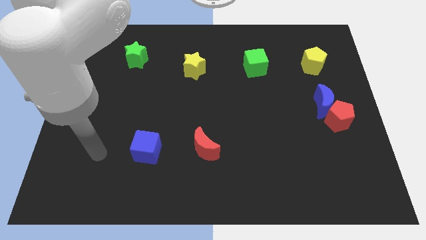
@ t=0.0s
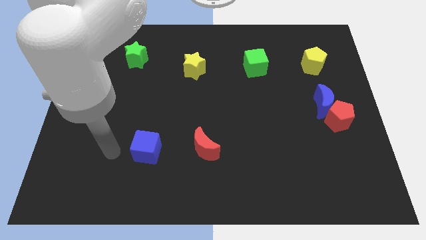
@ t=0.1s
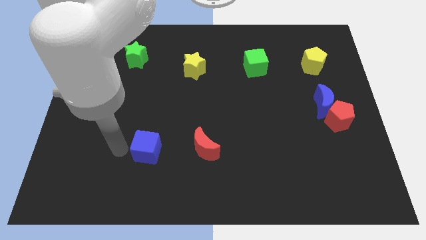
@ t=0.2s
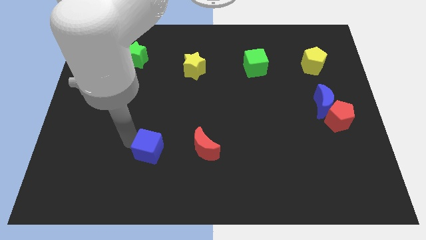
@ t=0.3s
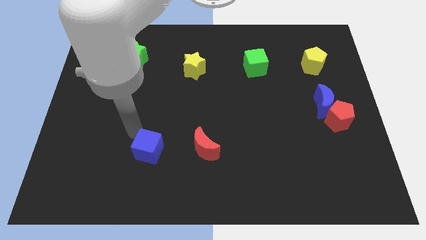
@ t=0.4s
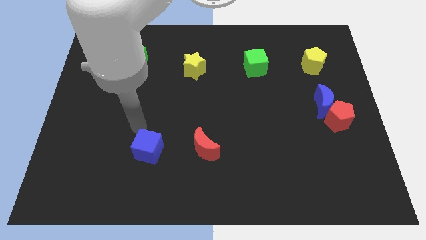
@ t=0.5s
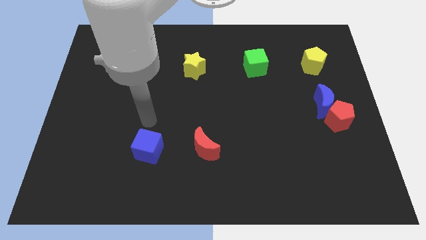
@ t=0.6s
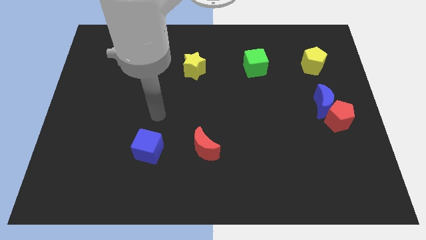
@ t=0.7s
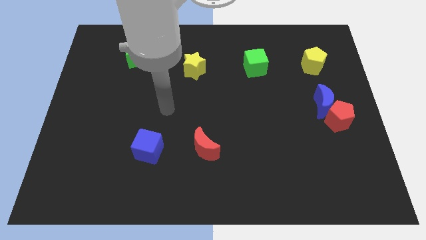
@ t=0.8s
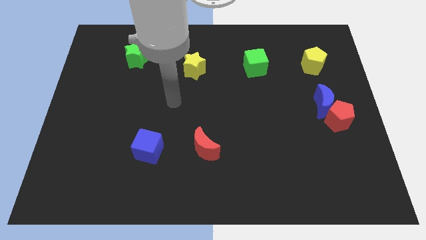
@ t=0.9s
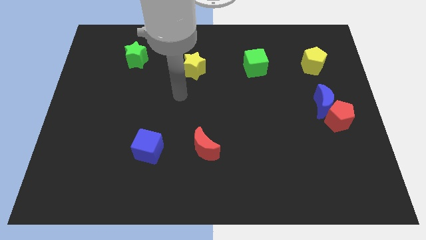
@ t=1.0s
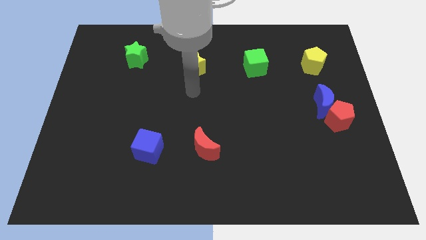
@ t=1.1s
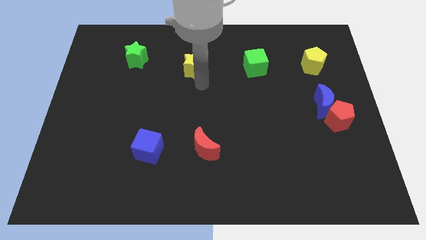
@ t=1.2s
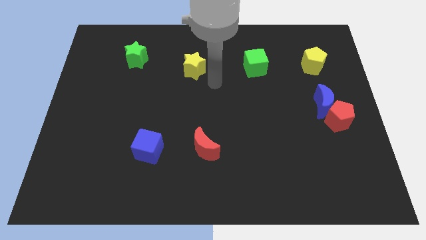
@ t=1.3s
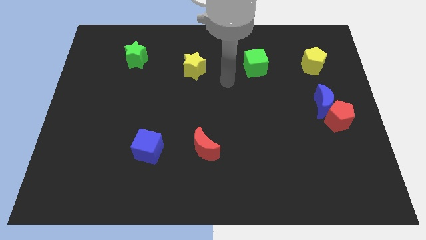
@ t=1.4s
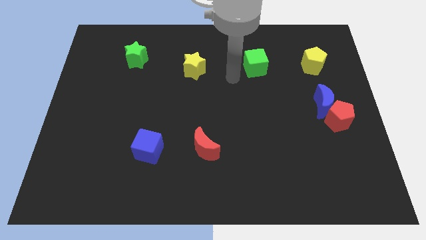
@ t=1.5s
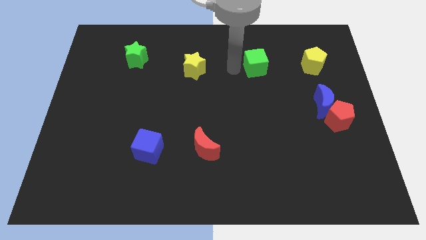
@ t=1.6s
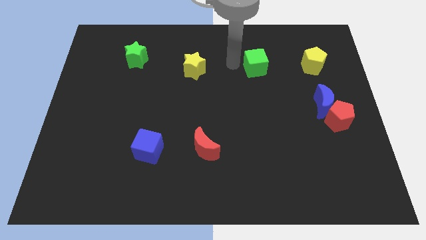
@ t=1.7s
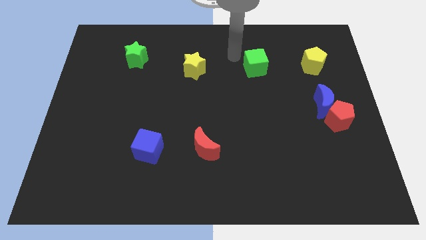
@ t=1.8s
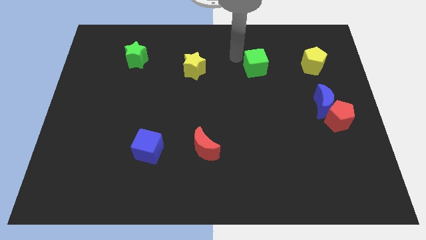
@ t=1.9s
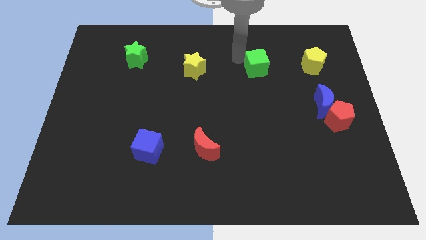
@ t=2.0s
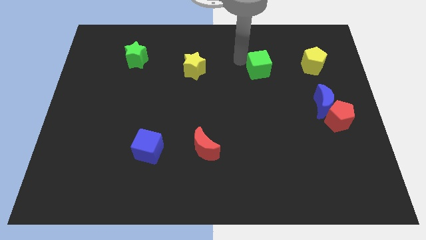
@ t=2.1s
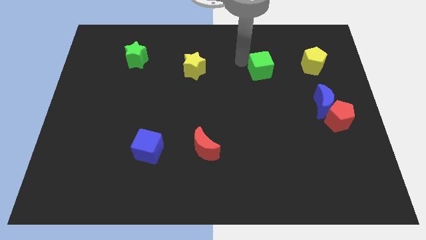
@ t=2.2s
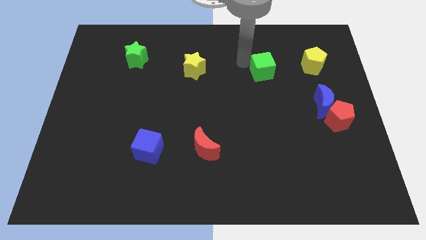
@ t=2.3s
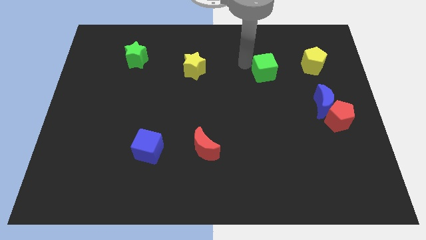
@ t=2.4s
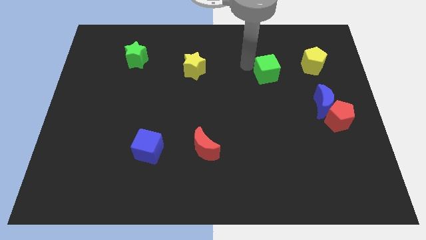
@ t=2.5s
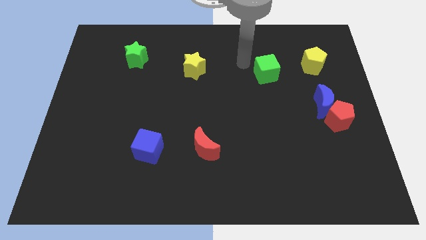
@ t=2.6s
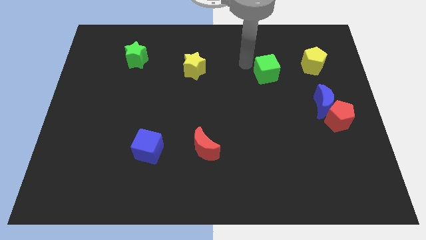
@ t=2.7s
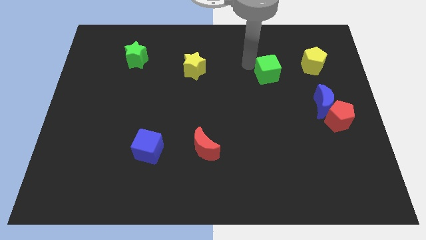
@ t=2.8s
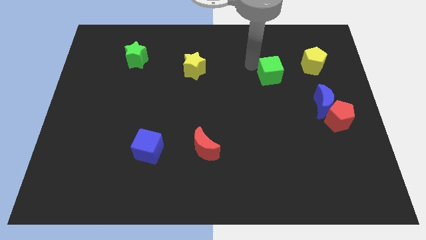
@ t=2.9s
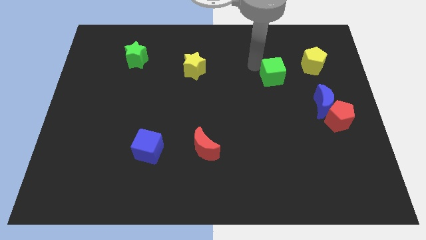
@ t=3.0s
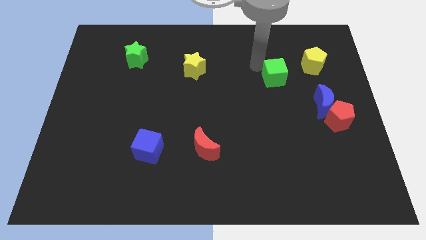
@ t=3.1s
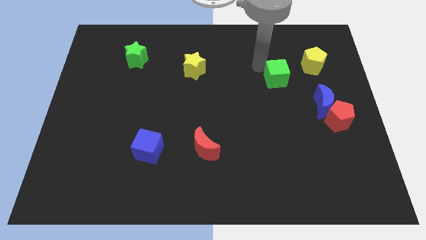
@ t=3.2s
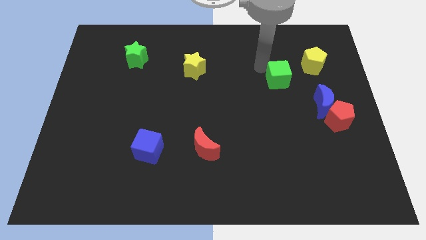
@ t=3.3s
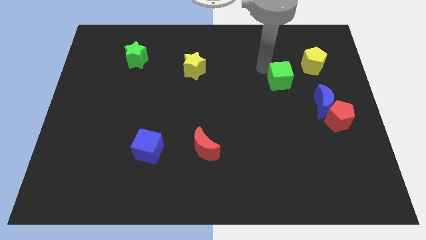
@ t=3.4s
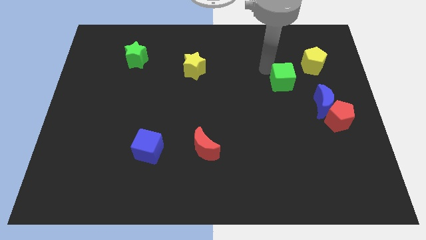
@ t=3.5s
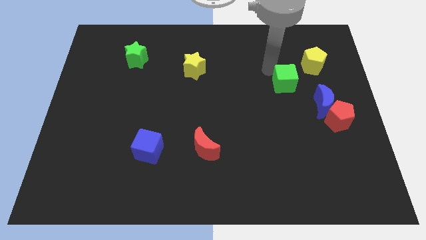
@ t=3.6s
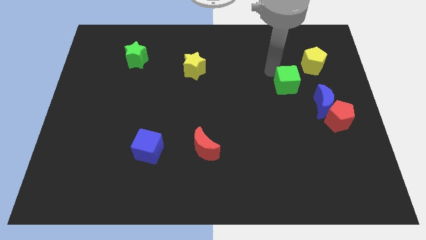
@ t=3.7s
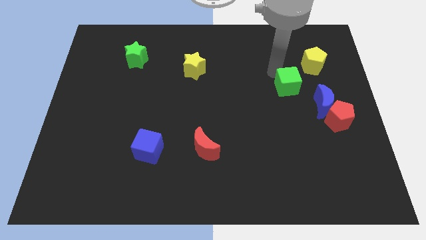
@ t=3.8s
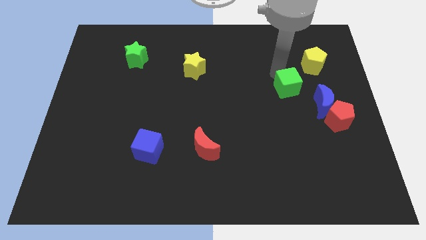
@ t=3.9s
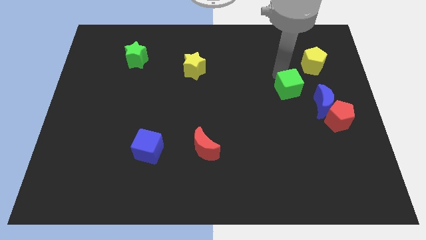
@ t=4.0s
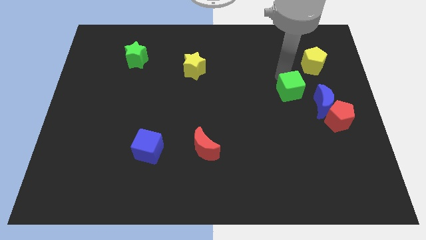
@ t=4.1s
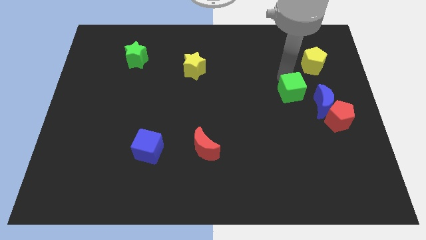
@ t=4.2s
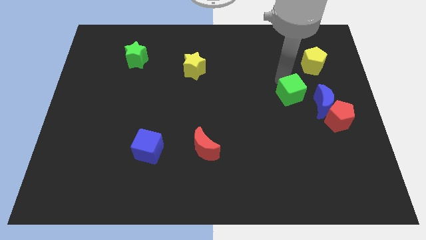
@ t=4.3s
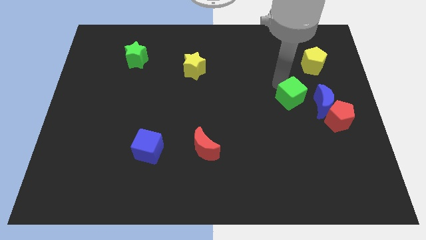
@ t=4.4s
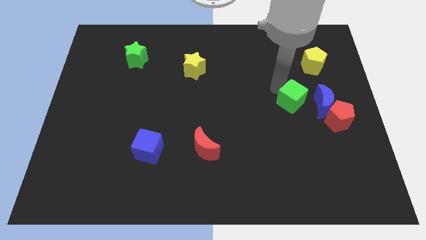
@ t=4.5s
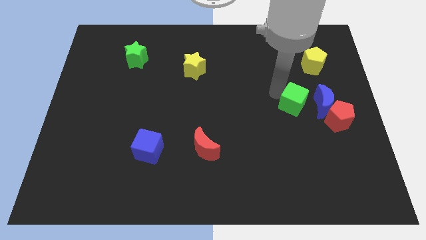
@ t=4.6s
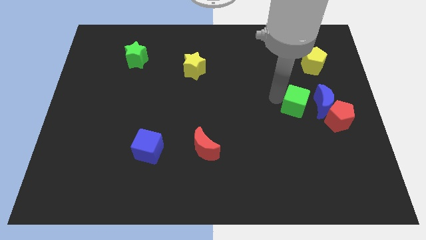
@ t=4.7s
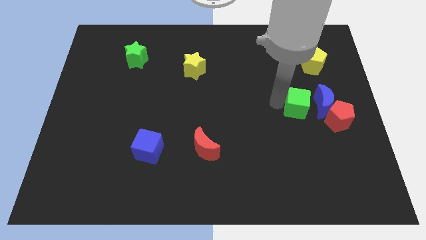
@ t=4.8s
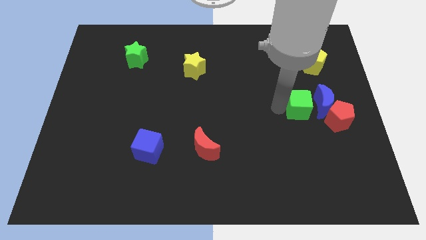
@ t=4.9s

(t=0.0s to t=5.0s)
move the green cube to the blue moon

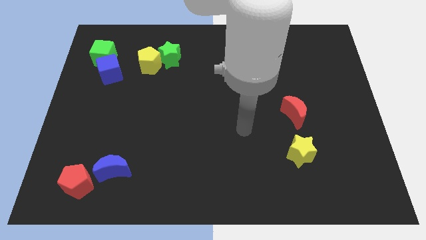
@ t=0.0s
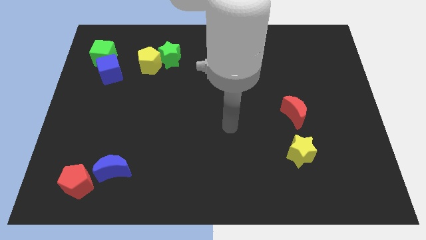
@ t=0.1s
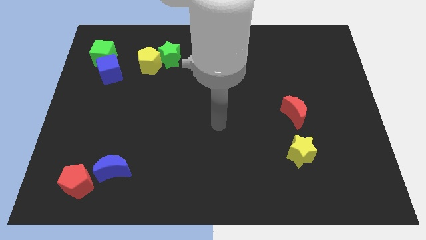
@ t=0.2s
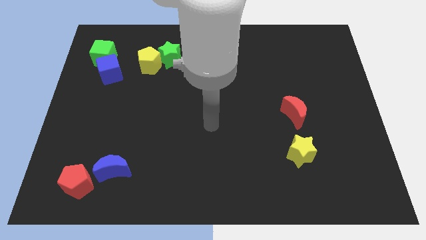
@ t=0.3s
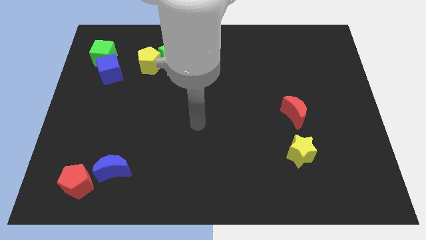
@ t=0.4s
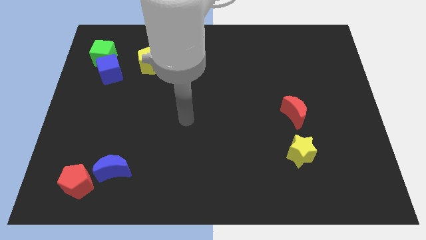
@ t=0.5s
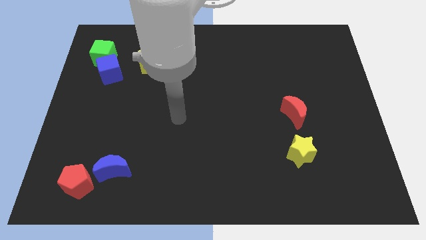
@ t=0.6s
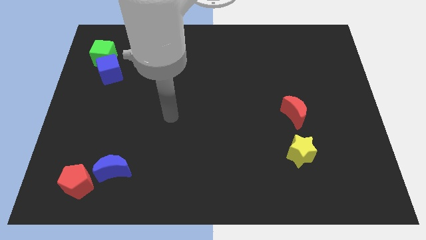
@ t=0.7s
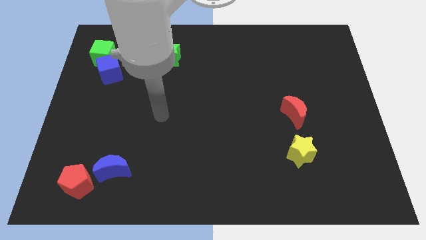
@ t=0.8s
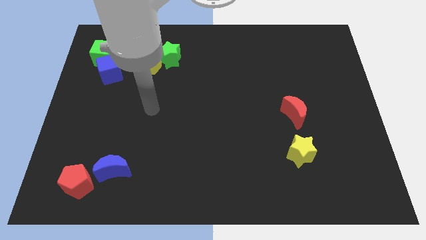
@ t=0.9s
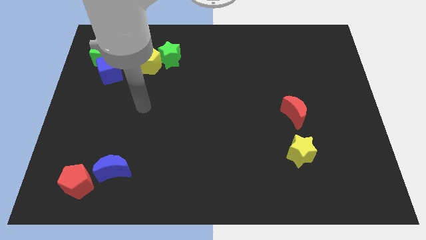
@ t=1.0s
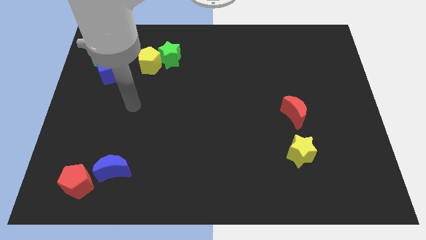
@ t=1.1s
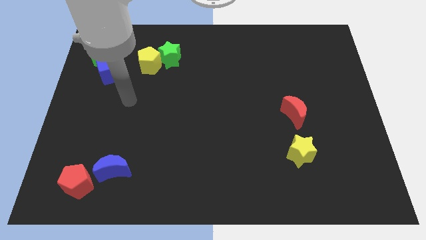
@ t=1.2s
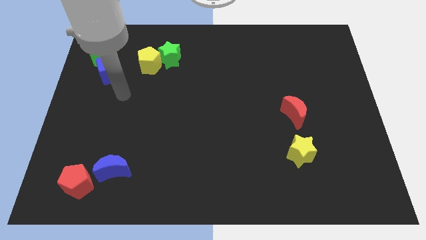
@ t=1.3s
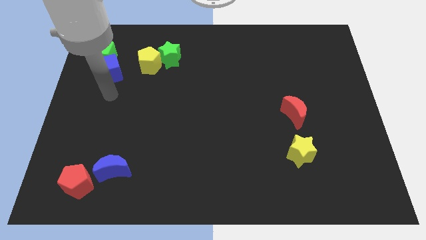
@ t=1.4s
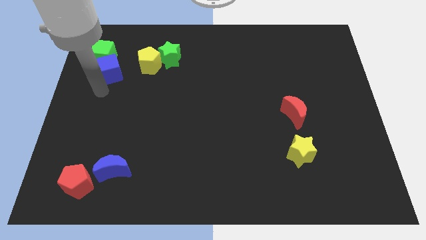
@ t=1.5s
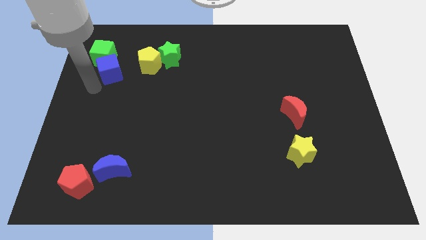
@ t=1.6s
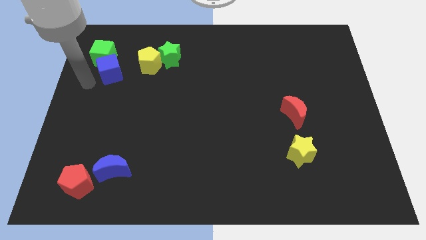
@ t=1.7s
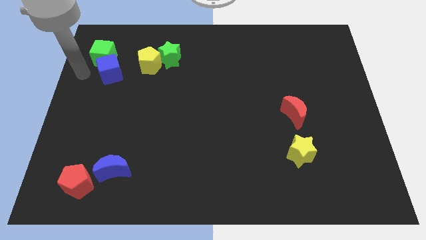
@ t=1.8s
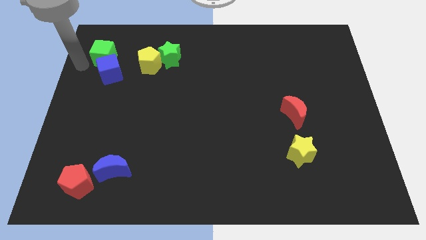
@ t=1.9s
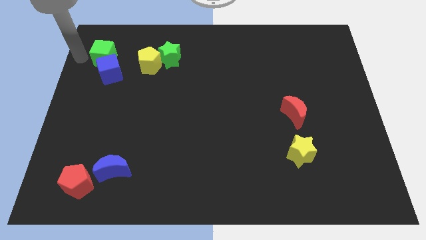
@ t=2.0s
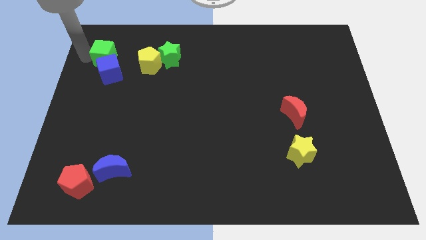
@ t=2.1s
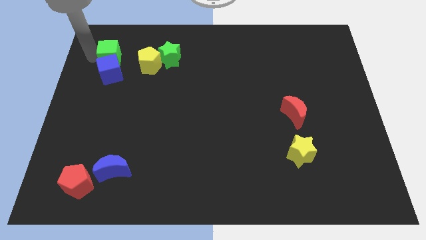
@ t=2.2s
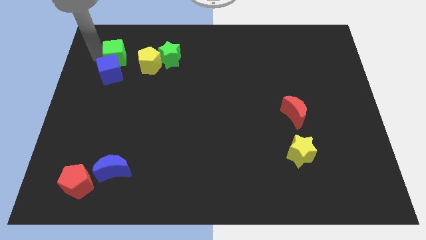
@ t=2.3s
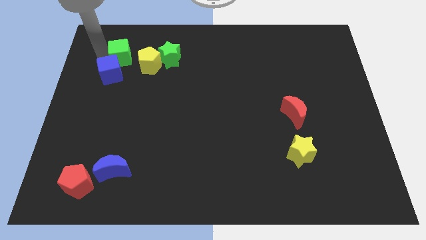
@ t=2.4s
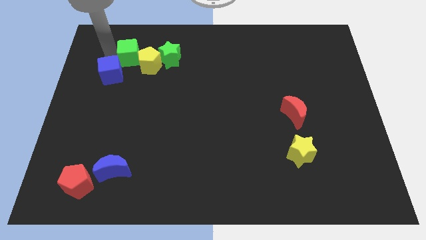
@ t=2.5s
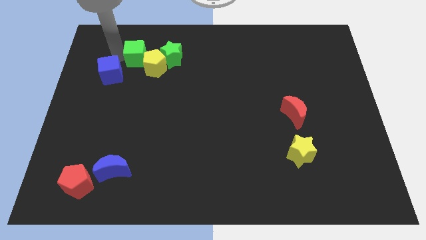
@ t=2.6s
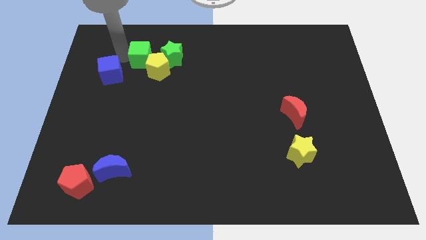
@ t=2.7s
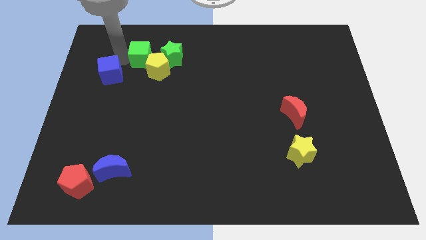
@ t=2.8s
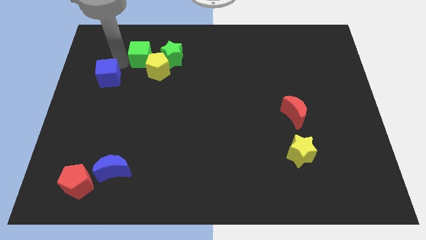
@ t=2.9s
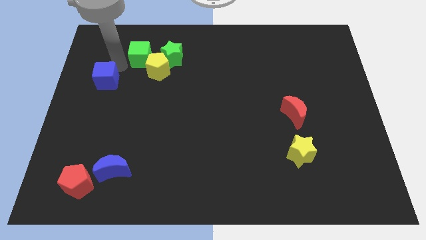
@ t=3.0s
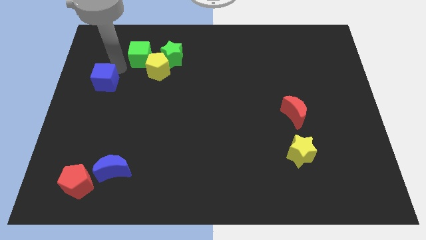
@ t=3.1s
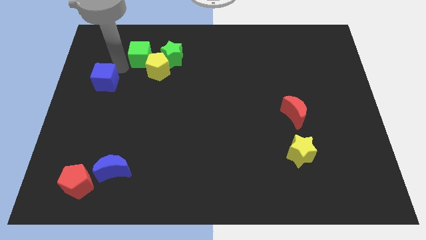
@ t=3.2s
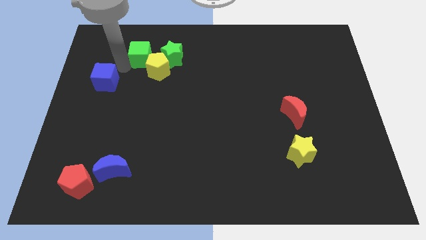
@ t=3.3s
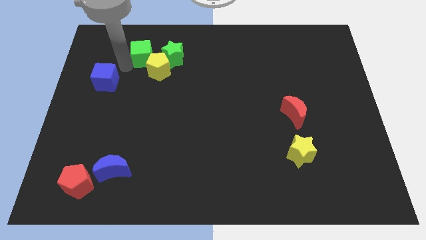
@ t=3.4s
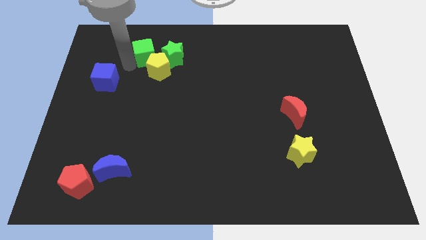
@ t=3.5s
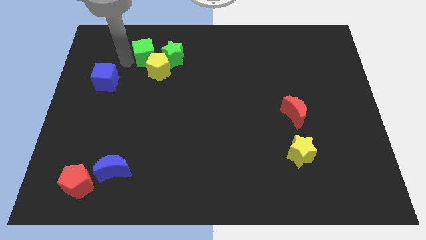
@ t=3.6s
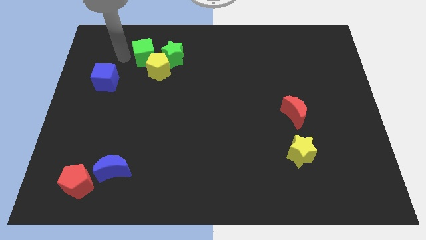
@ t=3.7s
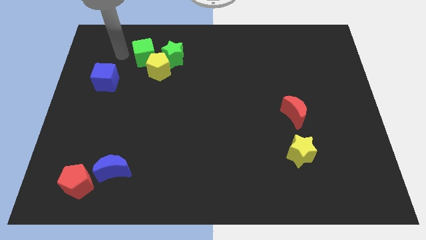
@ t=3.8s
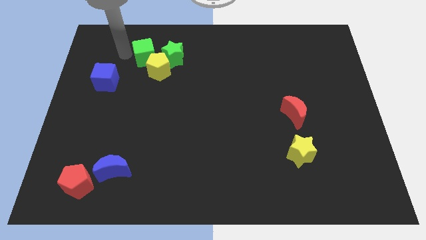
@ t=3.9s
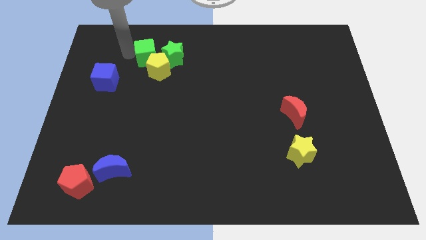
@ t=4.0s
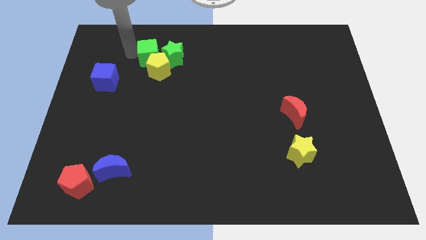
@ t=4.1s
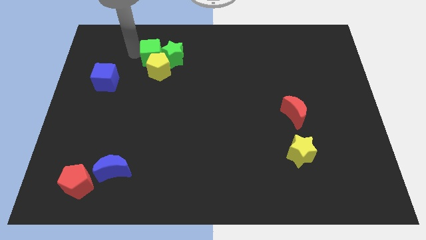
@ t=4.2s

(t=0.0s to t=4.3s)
put the green cube close to the green star
